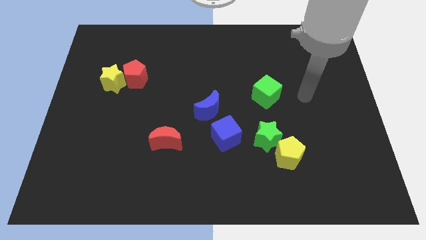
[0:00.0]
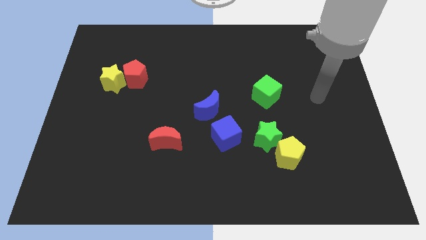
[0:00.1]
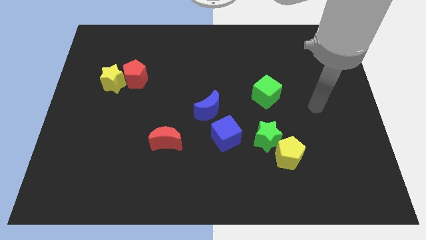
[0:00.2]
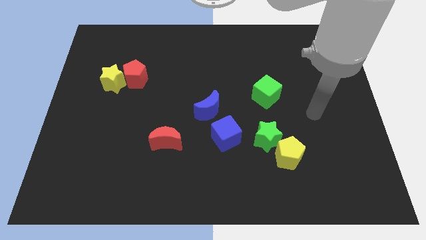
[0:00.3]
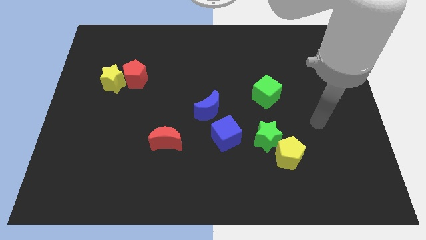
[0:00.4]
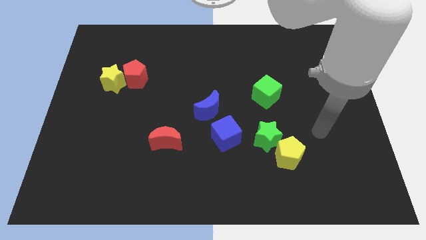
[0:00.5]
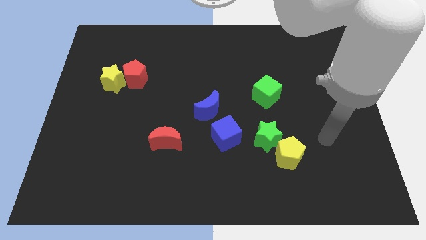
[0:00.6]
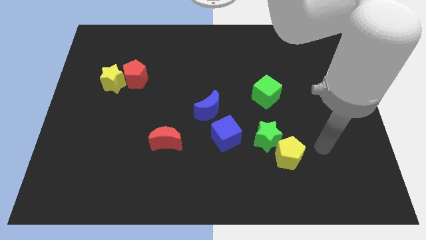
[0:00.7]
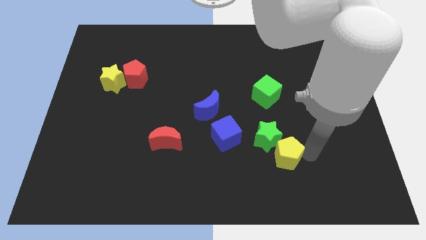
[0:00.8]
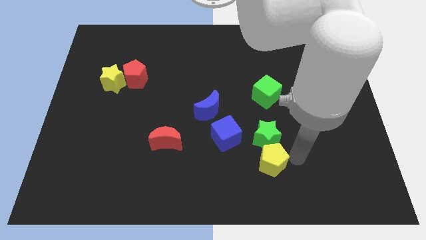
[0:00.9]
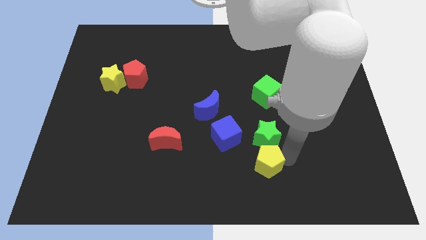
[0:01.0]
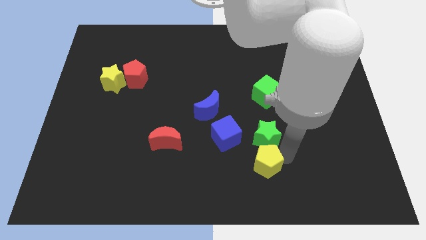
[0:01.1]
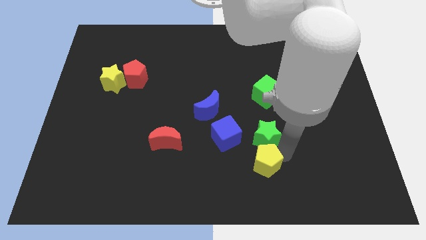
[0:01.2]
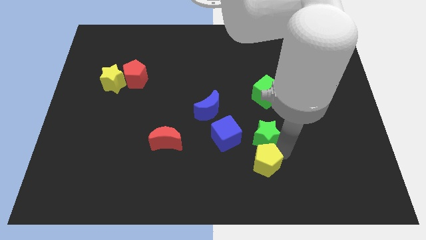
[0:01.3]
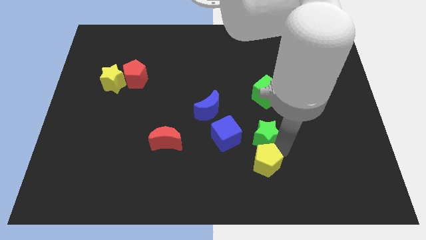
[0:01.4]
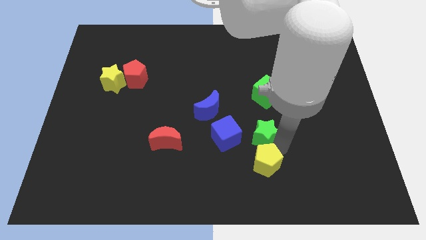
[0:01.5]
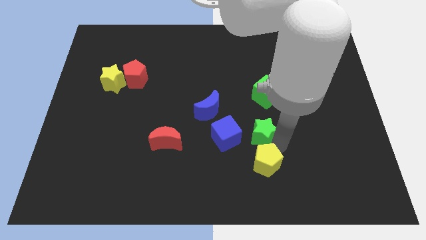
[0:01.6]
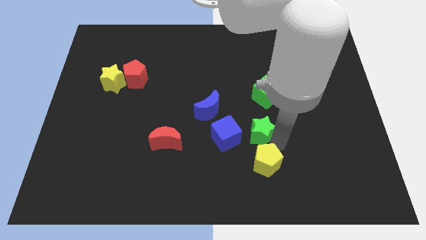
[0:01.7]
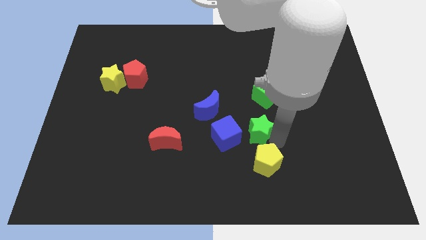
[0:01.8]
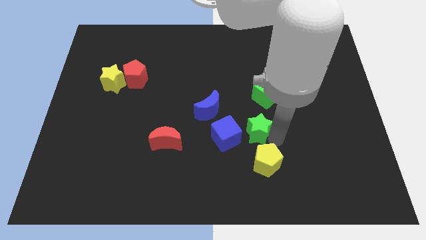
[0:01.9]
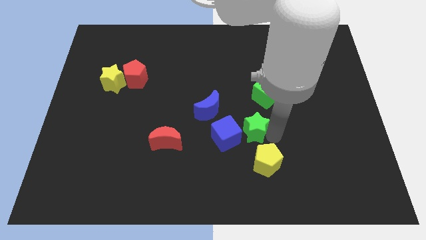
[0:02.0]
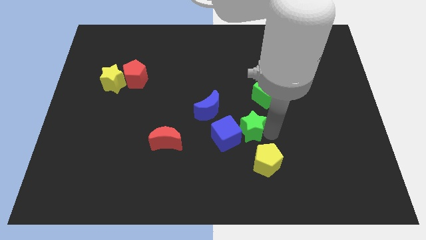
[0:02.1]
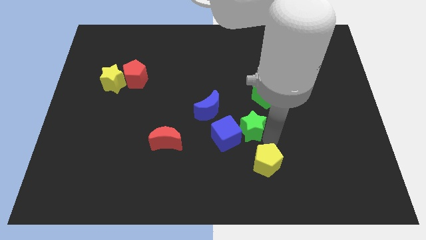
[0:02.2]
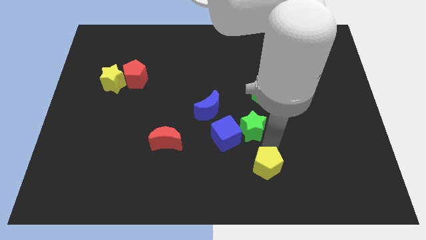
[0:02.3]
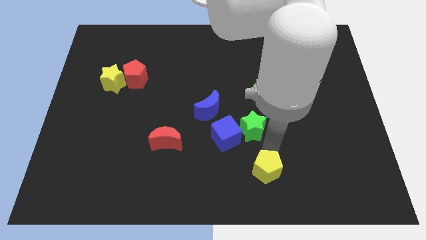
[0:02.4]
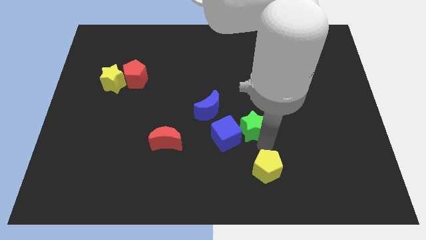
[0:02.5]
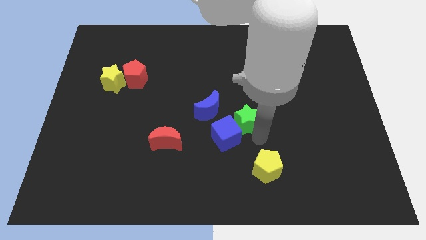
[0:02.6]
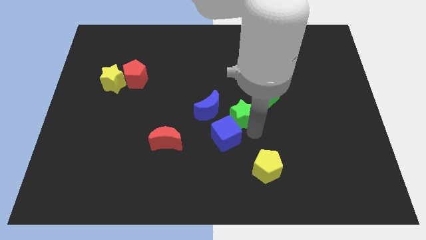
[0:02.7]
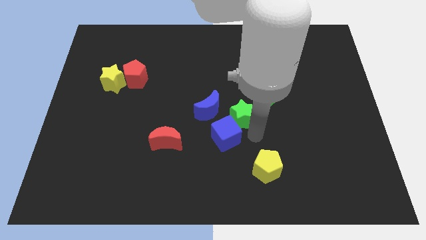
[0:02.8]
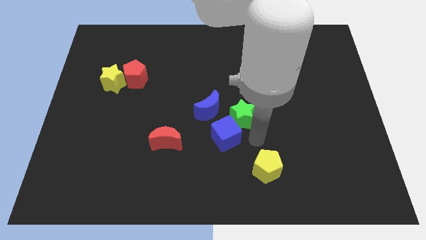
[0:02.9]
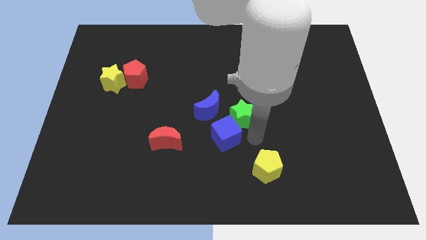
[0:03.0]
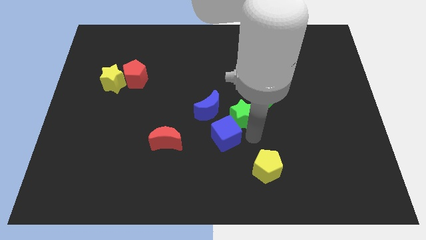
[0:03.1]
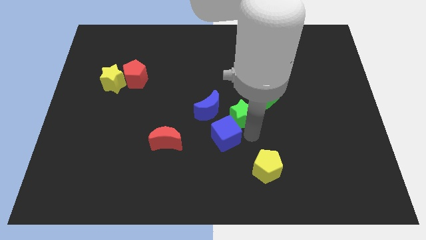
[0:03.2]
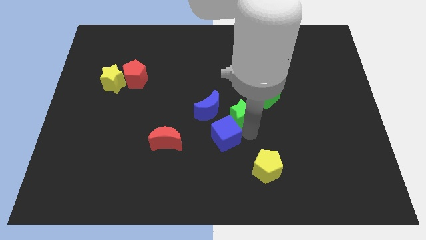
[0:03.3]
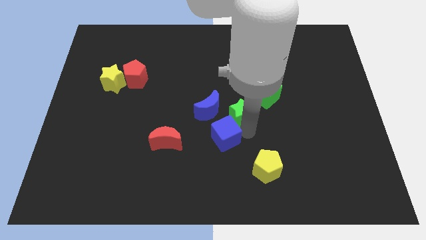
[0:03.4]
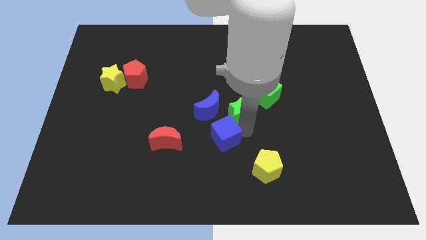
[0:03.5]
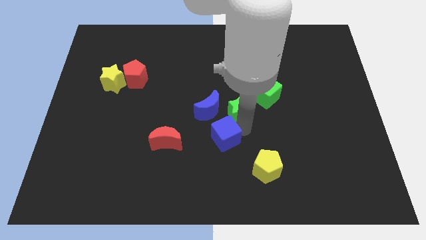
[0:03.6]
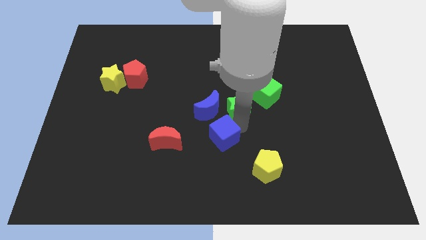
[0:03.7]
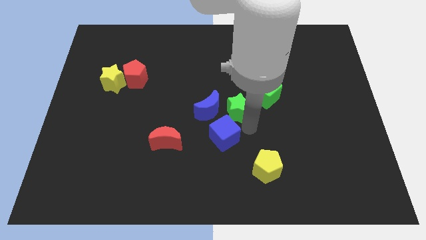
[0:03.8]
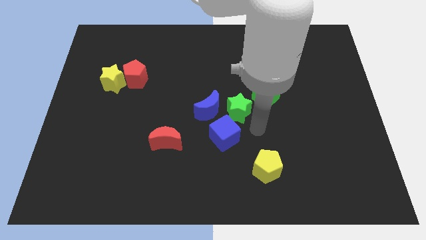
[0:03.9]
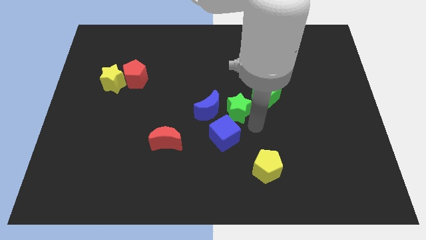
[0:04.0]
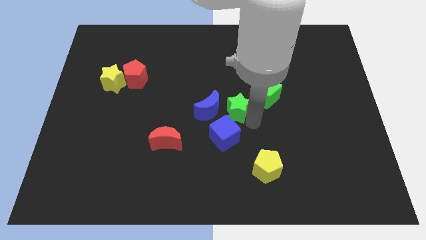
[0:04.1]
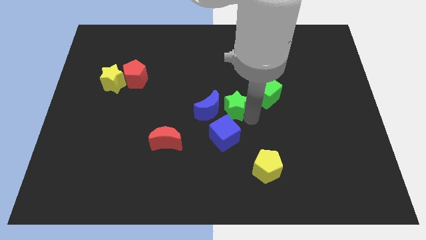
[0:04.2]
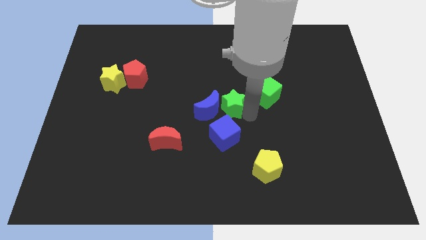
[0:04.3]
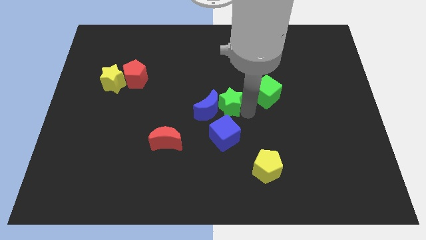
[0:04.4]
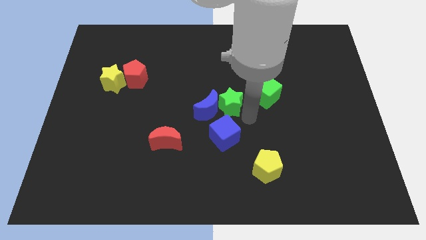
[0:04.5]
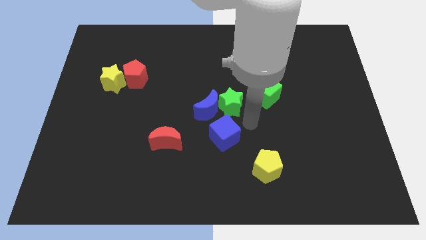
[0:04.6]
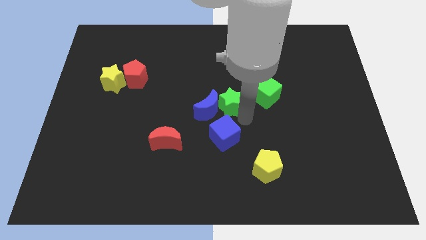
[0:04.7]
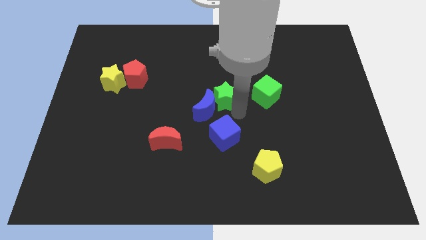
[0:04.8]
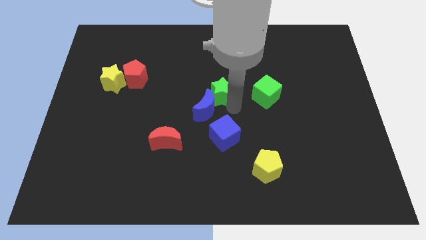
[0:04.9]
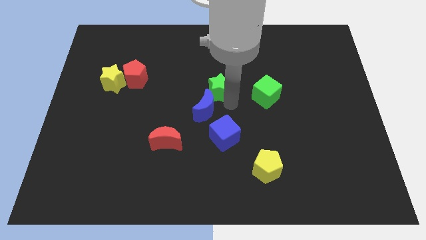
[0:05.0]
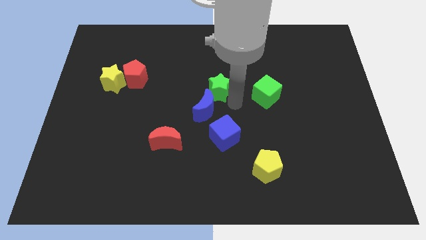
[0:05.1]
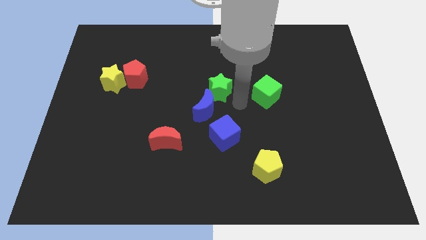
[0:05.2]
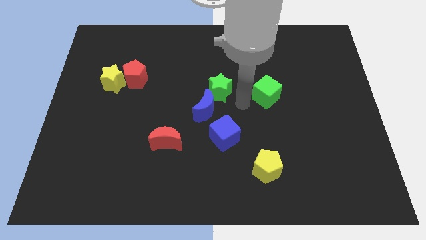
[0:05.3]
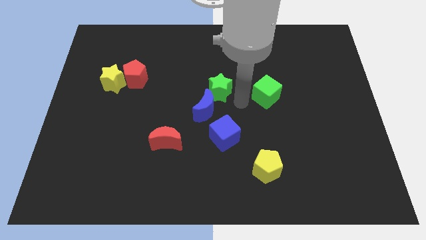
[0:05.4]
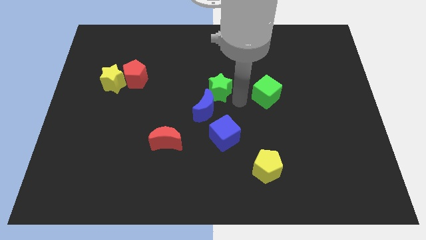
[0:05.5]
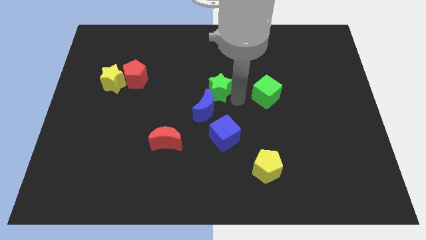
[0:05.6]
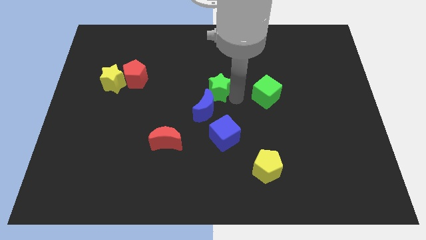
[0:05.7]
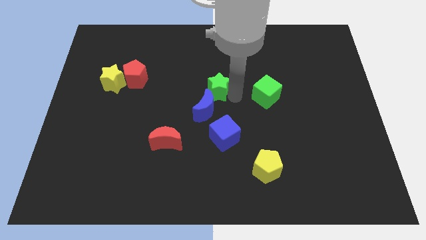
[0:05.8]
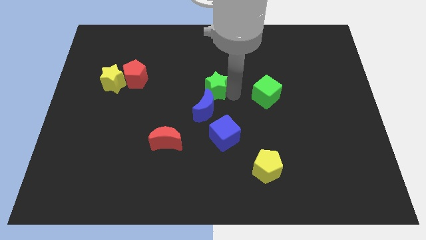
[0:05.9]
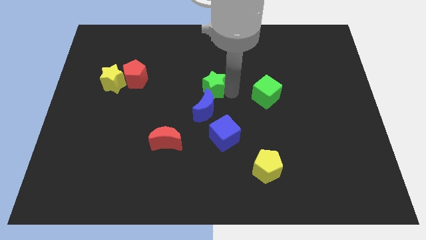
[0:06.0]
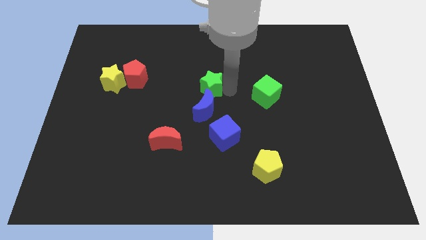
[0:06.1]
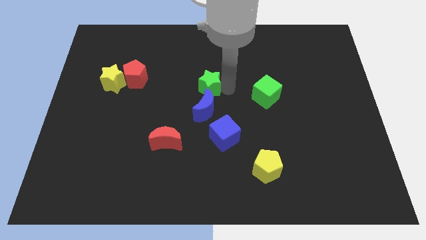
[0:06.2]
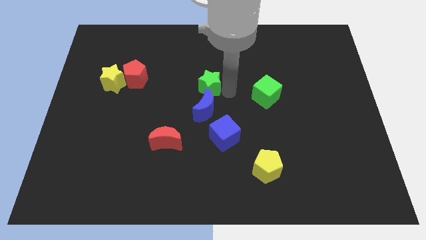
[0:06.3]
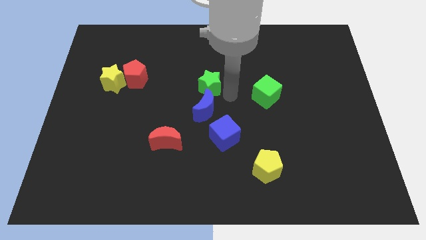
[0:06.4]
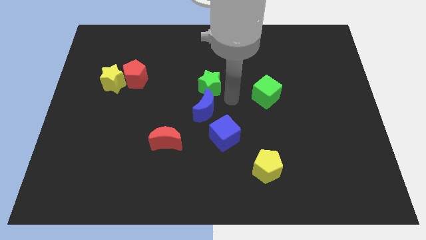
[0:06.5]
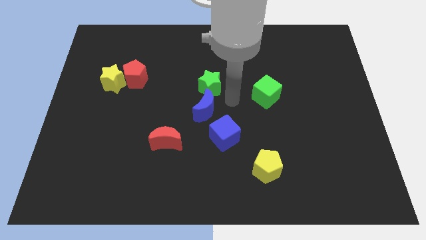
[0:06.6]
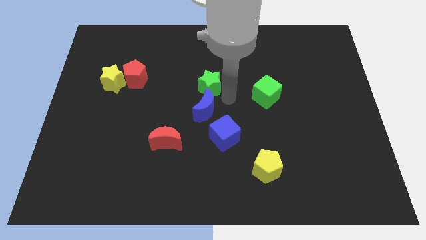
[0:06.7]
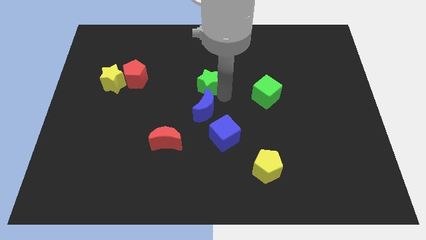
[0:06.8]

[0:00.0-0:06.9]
move the green star upwards and left diagonally

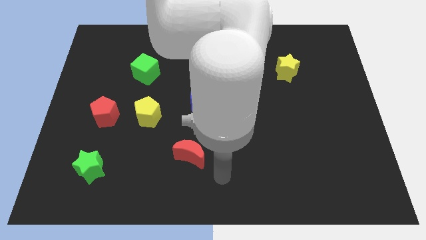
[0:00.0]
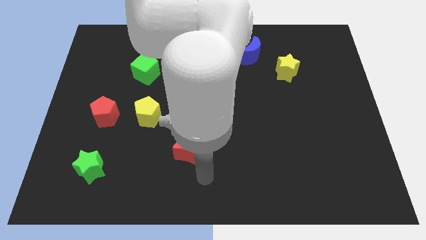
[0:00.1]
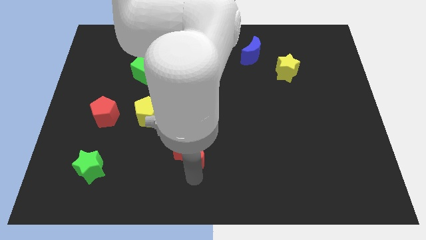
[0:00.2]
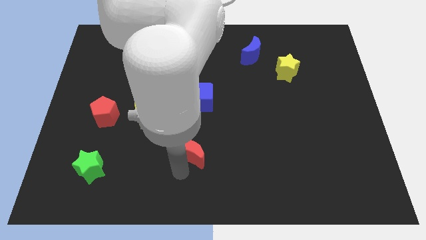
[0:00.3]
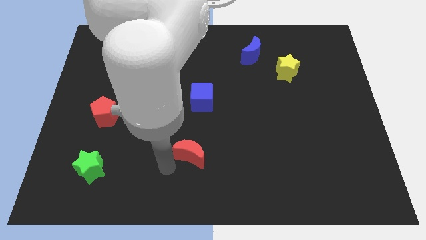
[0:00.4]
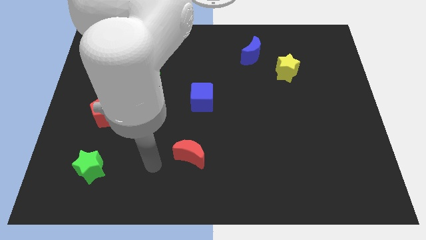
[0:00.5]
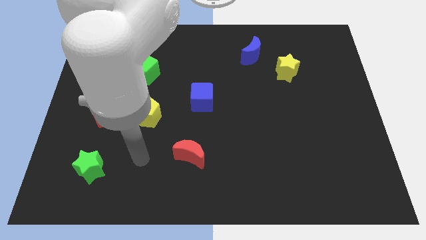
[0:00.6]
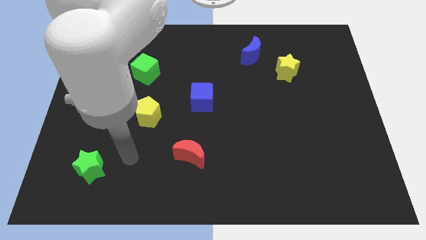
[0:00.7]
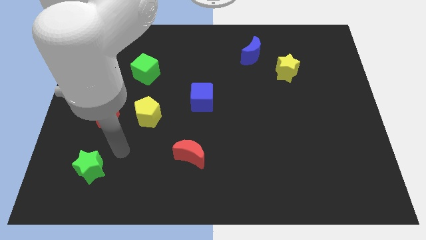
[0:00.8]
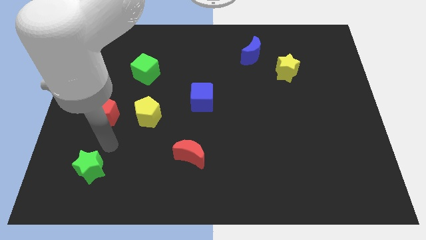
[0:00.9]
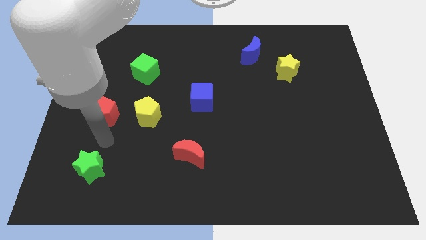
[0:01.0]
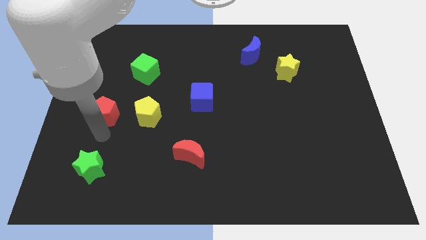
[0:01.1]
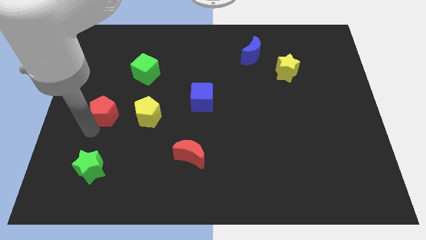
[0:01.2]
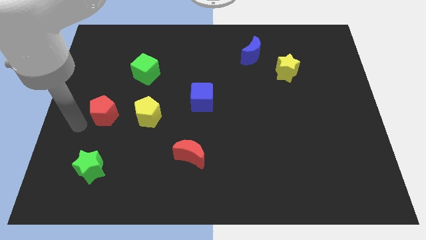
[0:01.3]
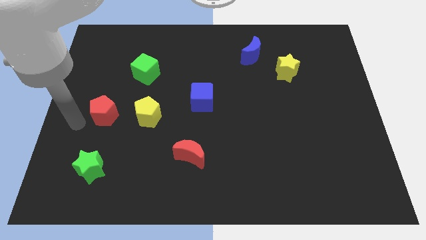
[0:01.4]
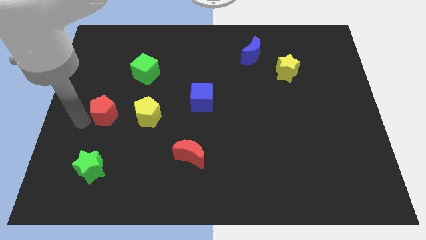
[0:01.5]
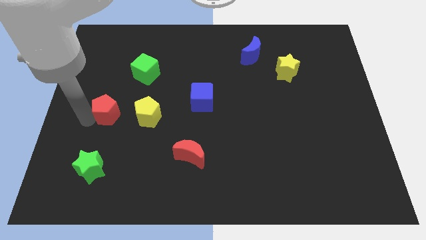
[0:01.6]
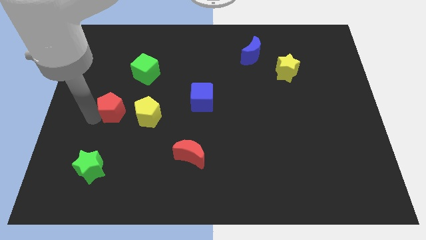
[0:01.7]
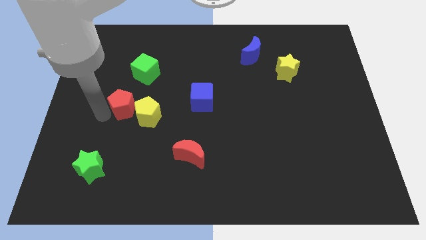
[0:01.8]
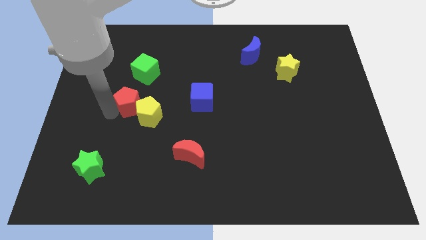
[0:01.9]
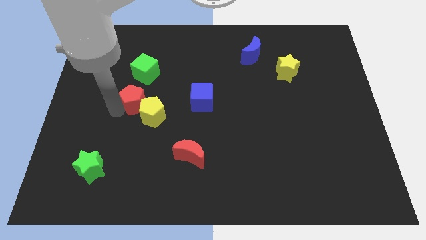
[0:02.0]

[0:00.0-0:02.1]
push the red pentagon somewhat up and then to the right
